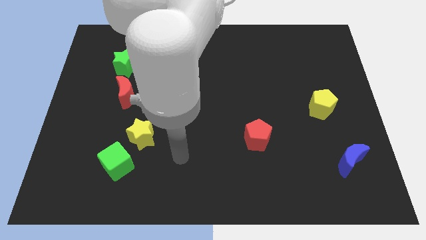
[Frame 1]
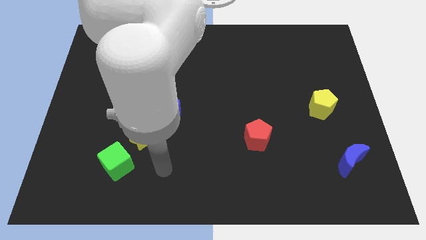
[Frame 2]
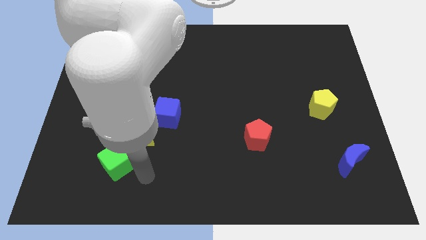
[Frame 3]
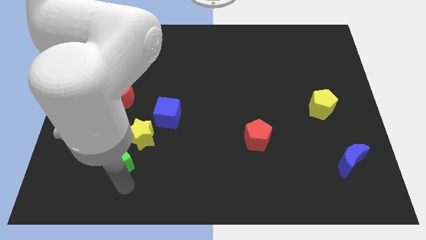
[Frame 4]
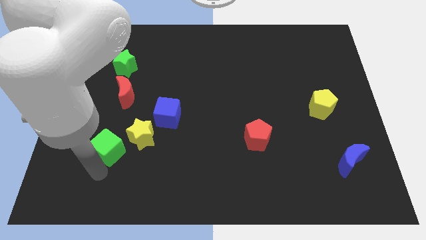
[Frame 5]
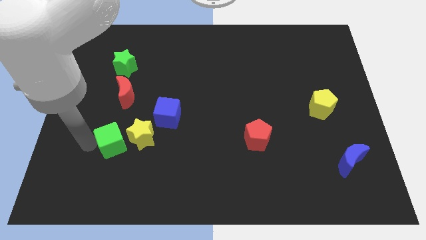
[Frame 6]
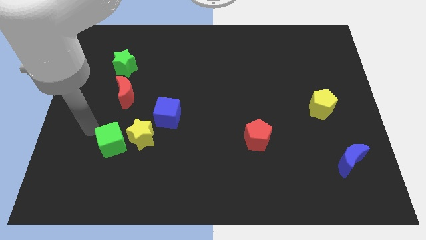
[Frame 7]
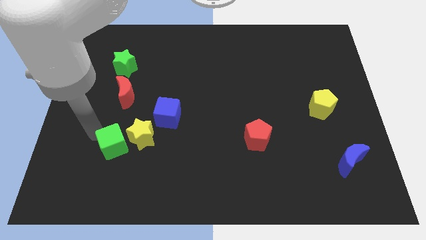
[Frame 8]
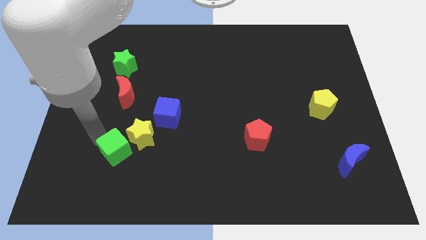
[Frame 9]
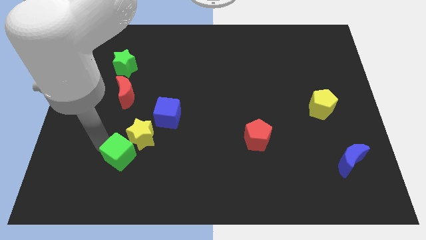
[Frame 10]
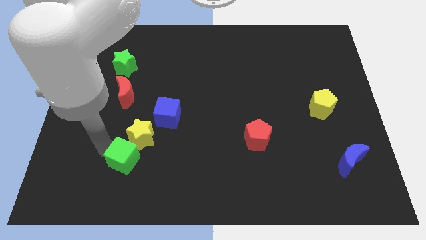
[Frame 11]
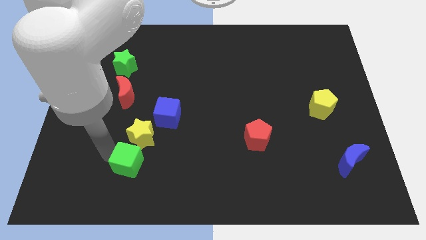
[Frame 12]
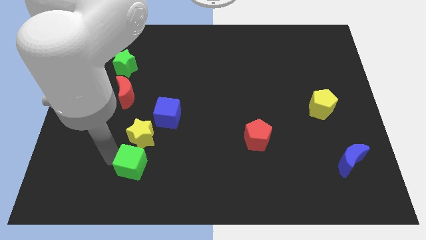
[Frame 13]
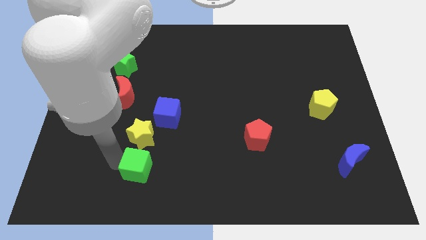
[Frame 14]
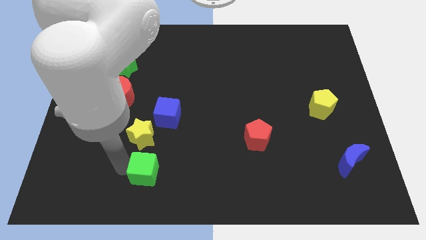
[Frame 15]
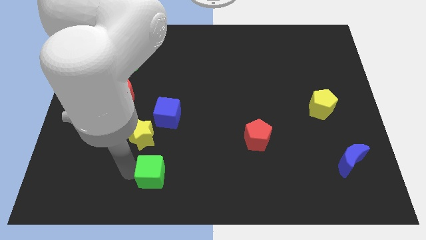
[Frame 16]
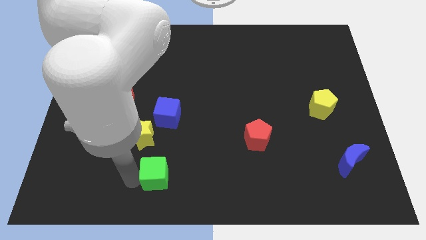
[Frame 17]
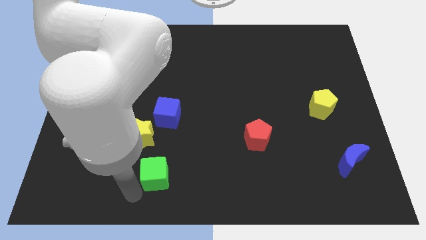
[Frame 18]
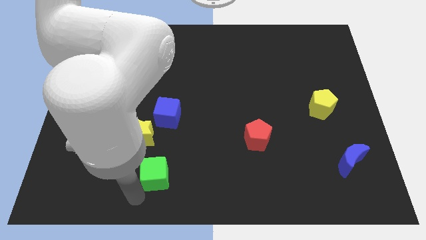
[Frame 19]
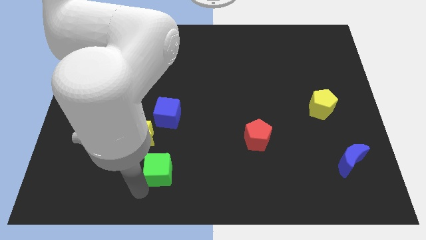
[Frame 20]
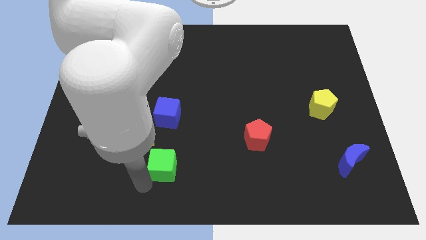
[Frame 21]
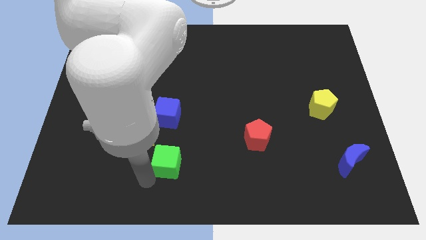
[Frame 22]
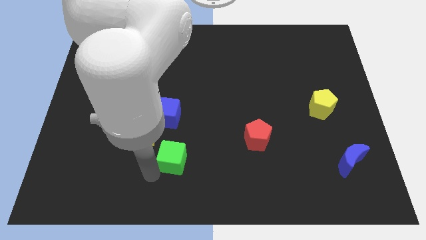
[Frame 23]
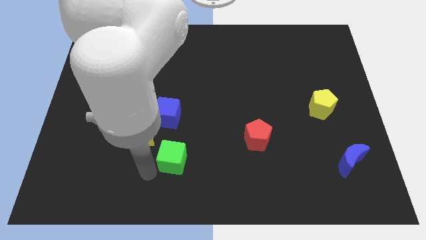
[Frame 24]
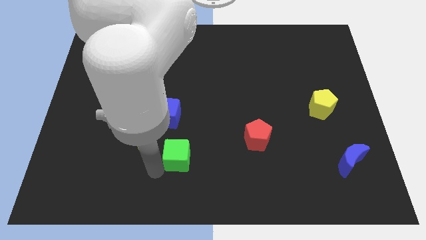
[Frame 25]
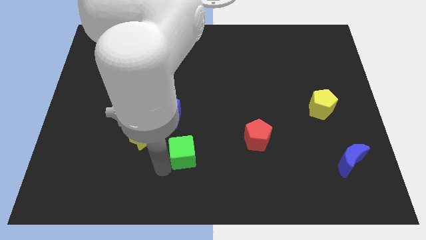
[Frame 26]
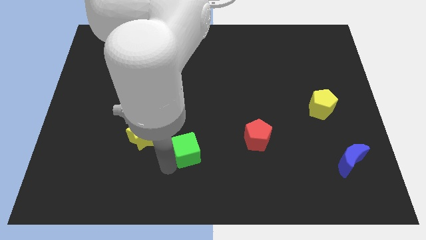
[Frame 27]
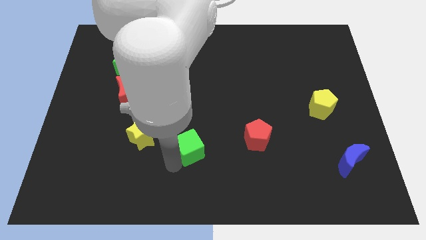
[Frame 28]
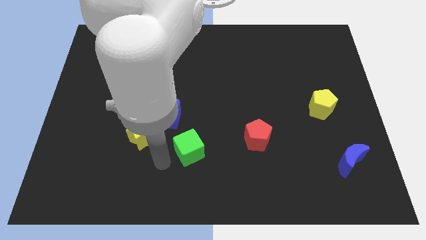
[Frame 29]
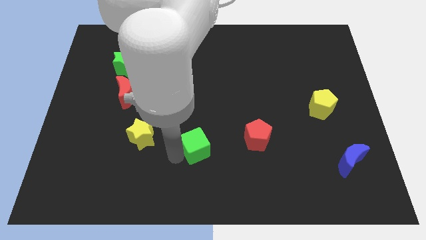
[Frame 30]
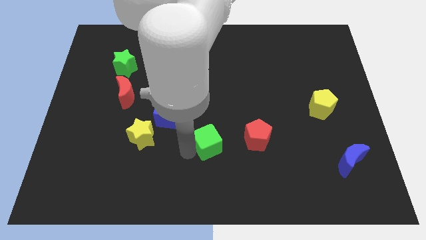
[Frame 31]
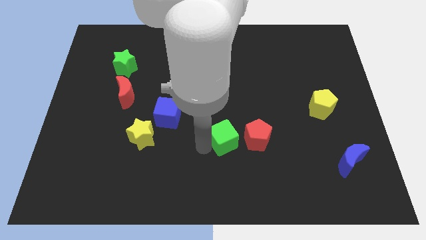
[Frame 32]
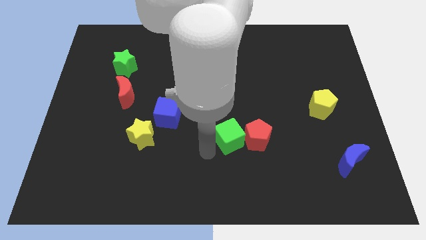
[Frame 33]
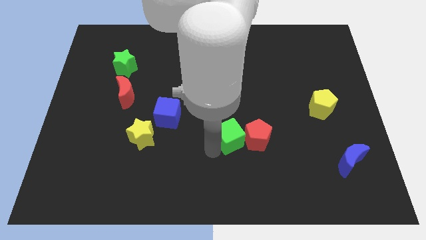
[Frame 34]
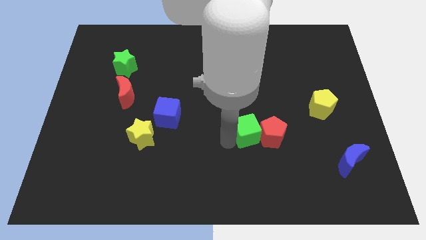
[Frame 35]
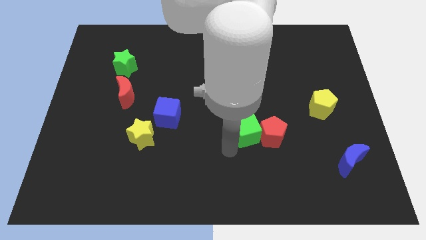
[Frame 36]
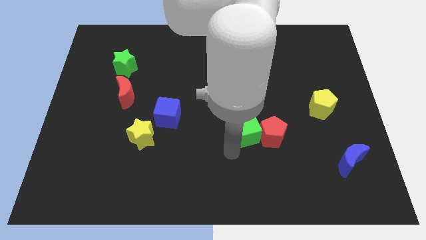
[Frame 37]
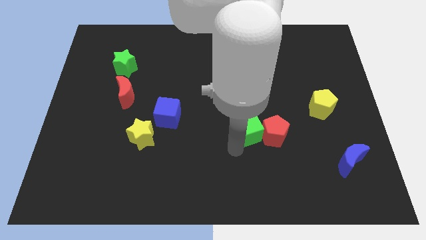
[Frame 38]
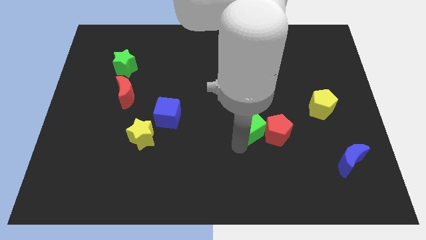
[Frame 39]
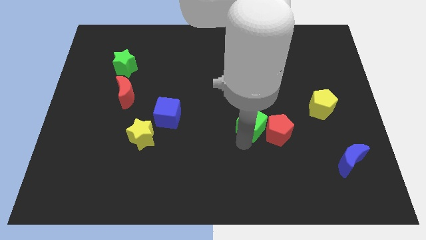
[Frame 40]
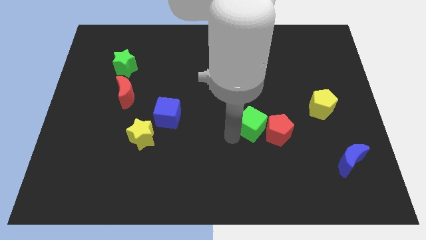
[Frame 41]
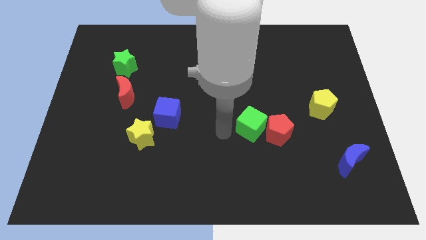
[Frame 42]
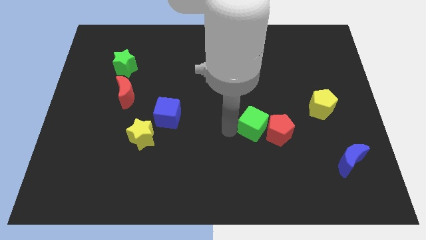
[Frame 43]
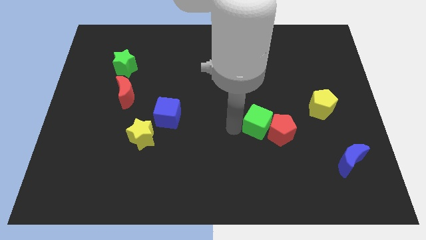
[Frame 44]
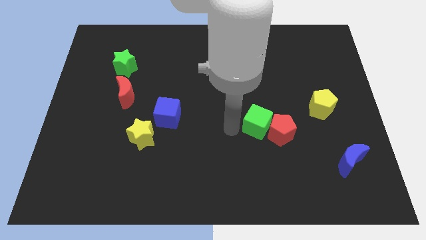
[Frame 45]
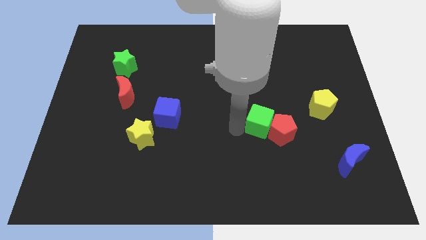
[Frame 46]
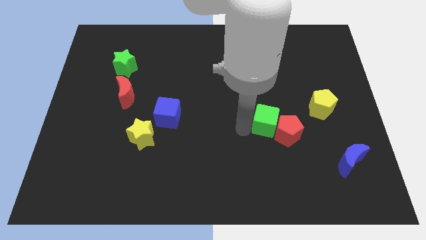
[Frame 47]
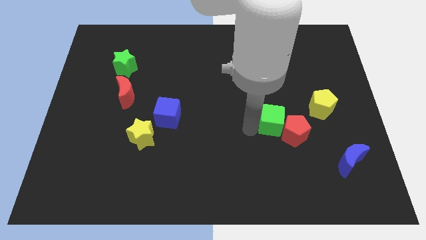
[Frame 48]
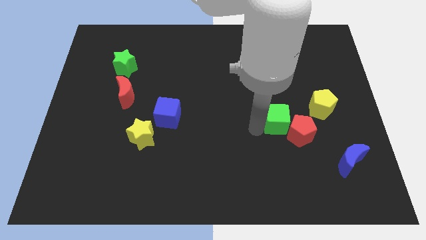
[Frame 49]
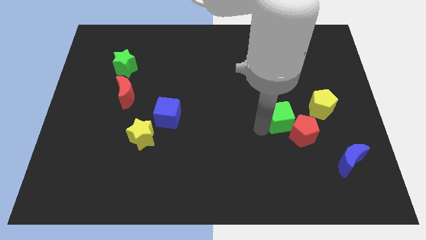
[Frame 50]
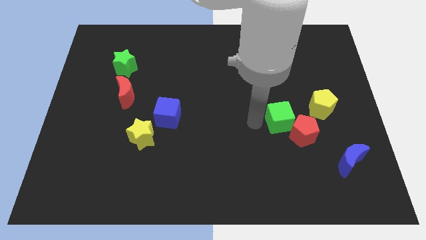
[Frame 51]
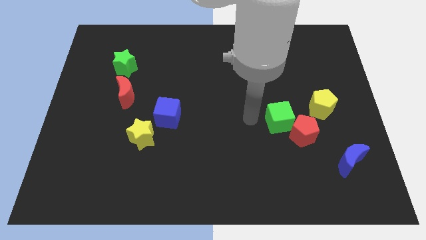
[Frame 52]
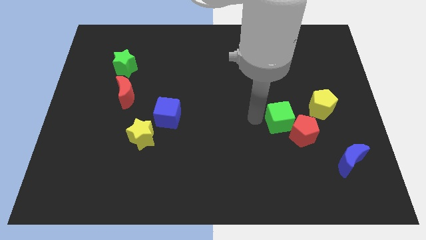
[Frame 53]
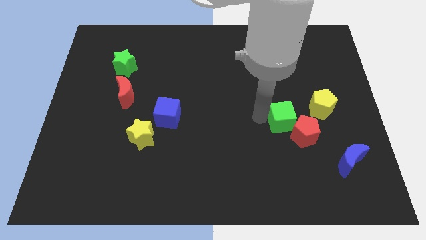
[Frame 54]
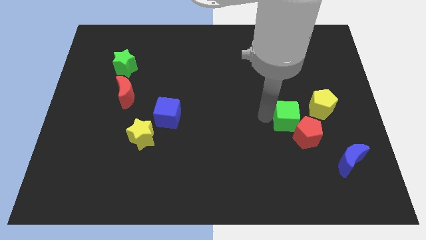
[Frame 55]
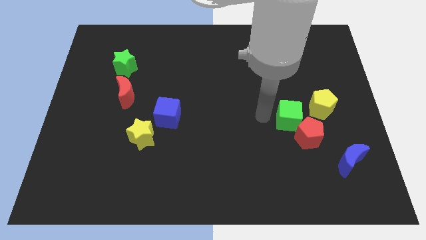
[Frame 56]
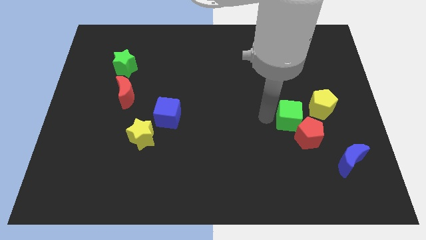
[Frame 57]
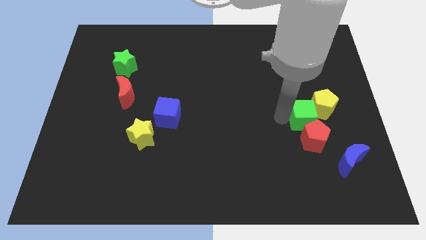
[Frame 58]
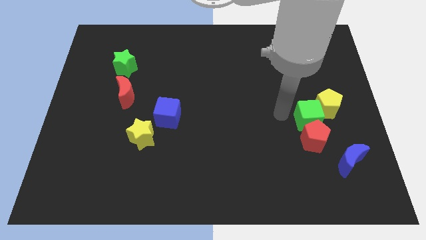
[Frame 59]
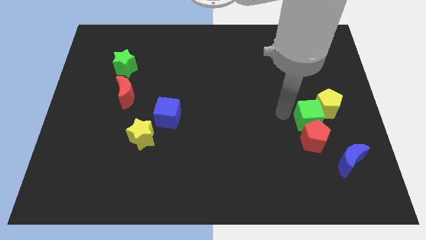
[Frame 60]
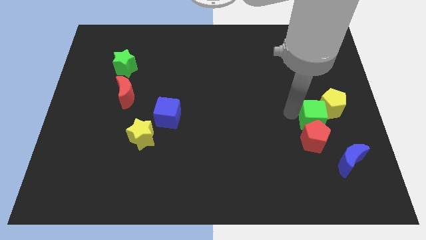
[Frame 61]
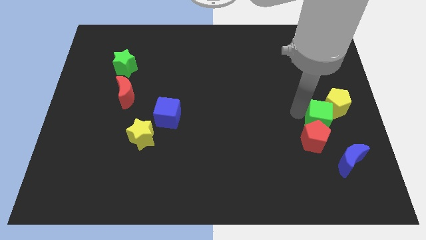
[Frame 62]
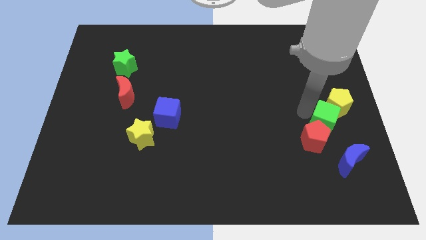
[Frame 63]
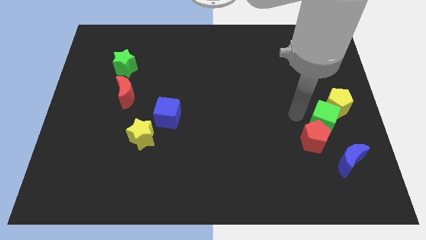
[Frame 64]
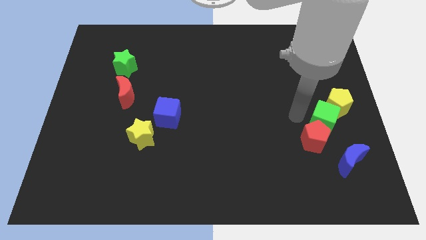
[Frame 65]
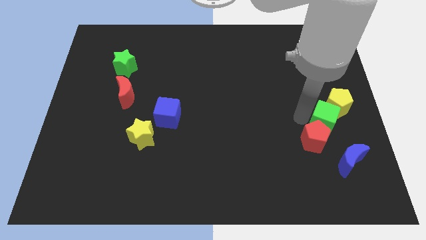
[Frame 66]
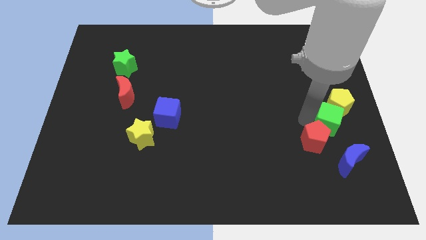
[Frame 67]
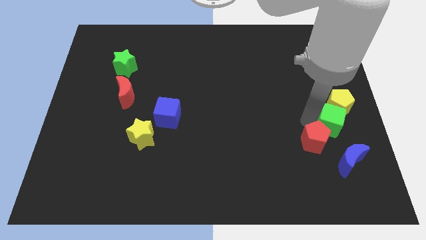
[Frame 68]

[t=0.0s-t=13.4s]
push the green cube to the right side
